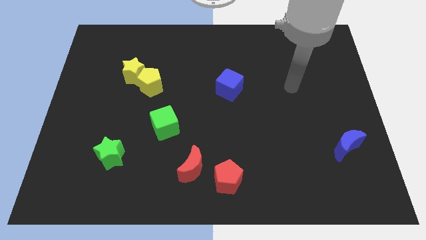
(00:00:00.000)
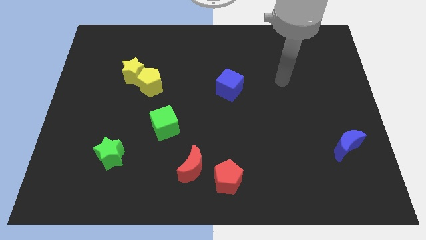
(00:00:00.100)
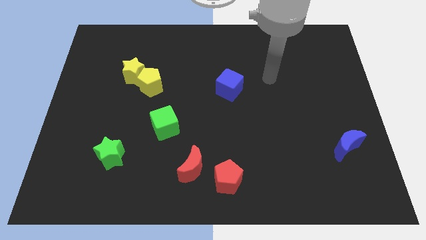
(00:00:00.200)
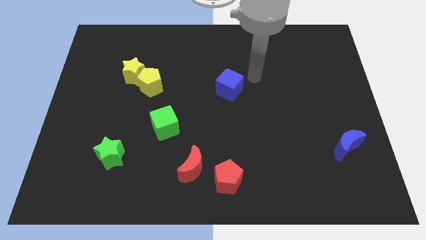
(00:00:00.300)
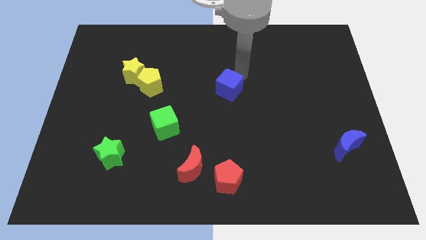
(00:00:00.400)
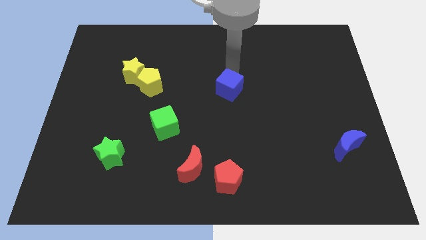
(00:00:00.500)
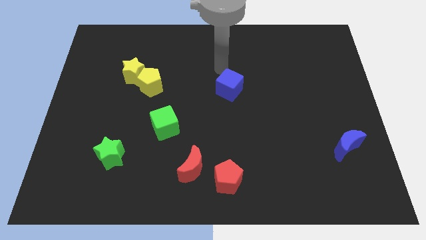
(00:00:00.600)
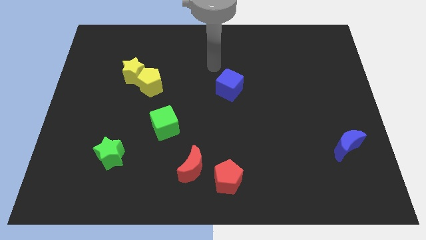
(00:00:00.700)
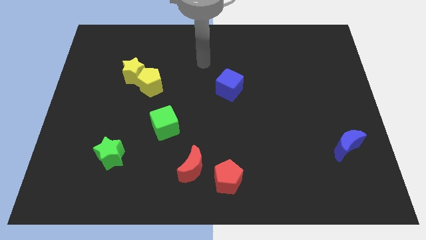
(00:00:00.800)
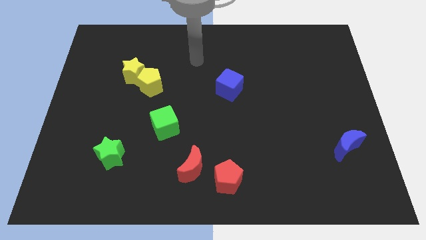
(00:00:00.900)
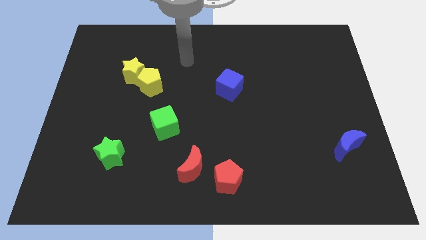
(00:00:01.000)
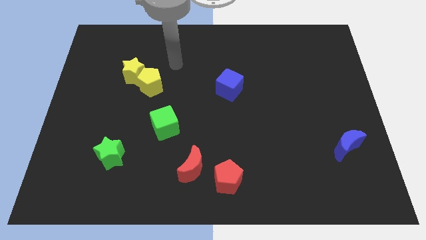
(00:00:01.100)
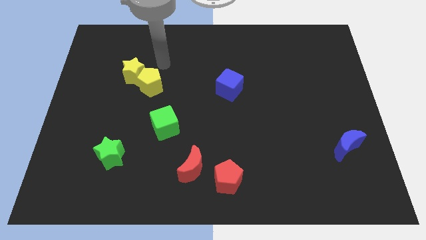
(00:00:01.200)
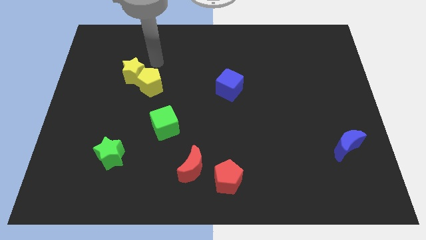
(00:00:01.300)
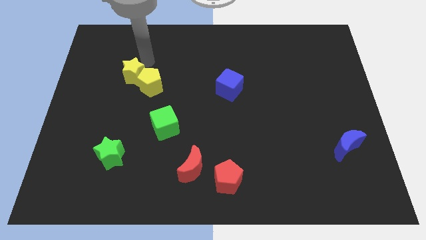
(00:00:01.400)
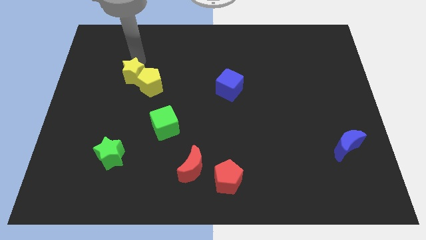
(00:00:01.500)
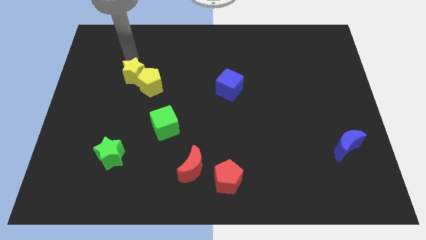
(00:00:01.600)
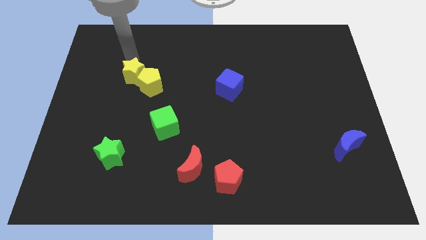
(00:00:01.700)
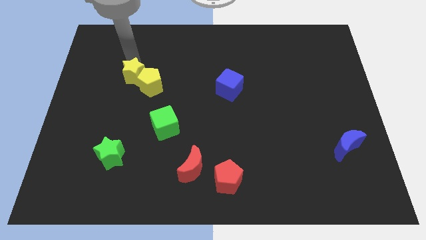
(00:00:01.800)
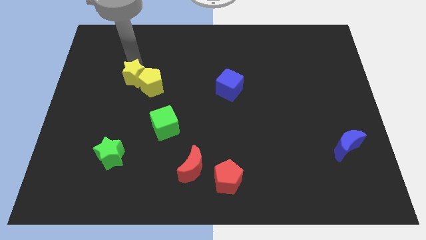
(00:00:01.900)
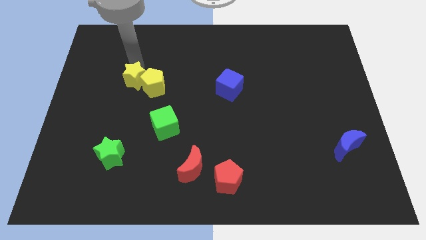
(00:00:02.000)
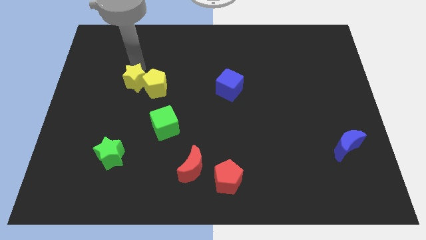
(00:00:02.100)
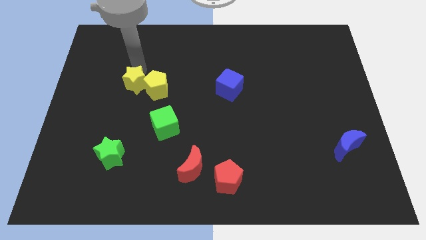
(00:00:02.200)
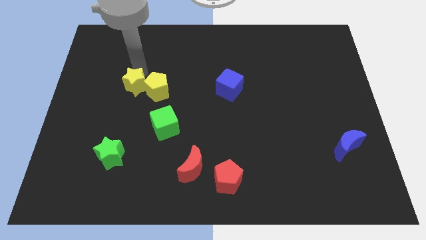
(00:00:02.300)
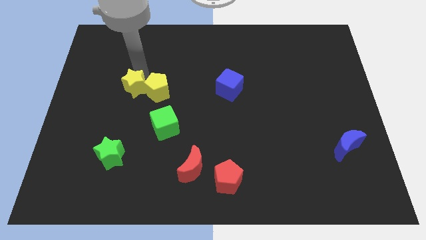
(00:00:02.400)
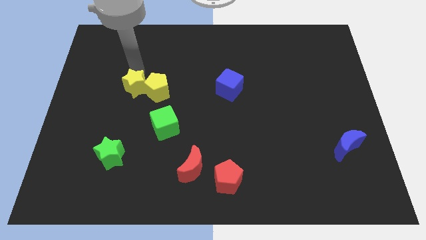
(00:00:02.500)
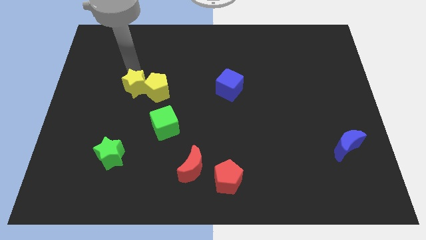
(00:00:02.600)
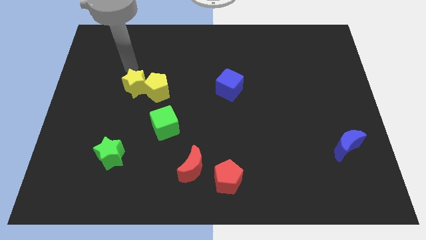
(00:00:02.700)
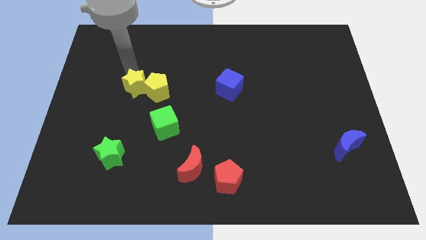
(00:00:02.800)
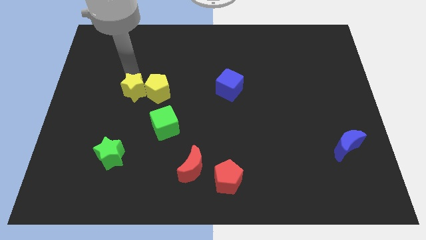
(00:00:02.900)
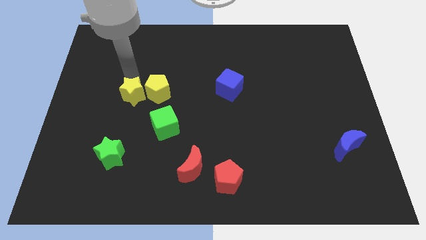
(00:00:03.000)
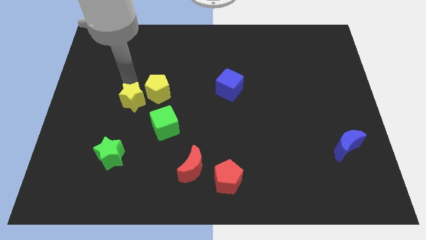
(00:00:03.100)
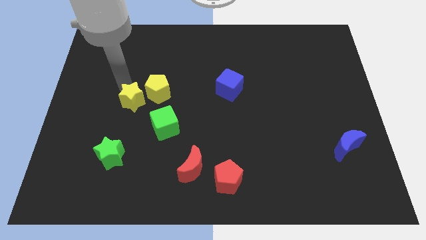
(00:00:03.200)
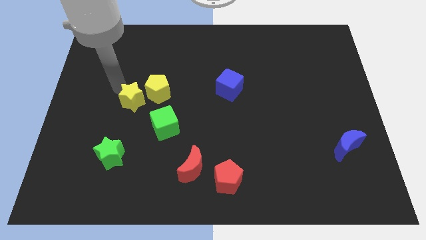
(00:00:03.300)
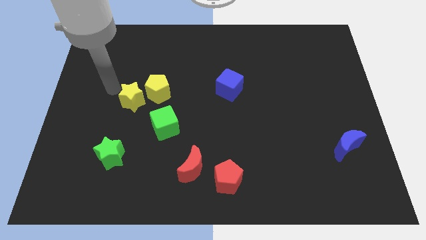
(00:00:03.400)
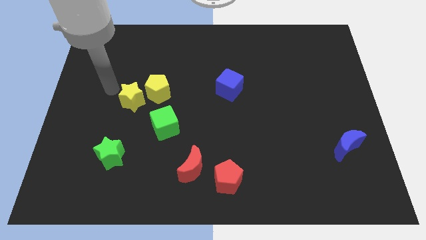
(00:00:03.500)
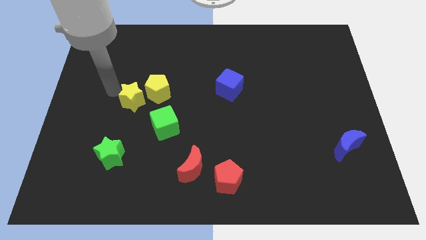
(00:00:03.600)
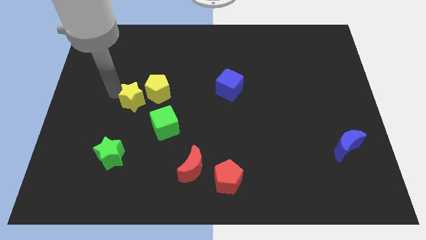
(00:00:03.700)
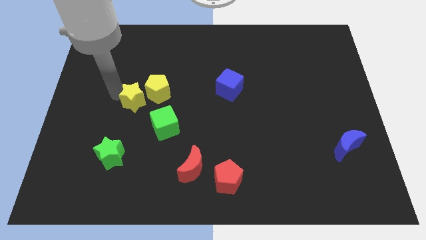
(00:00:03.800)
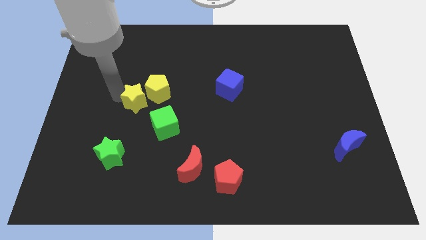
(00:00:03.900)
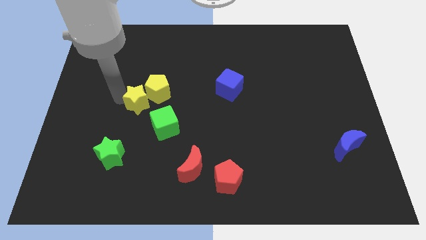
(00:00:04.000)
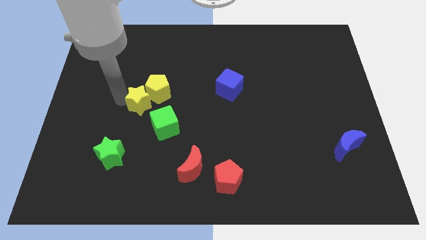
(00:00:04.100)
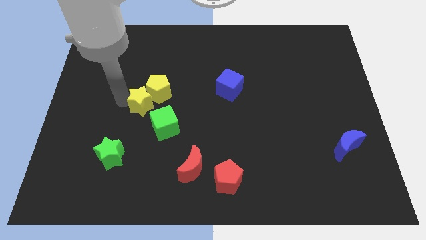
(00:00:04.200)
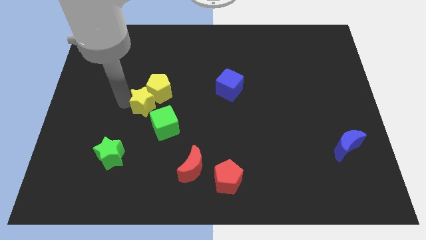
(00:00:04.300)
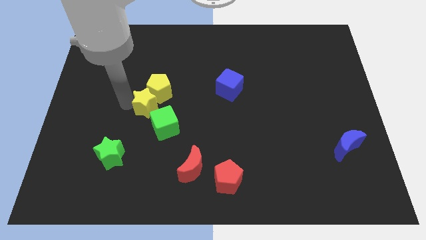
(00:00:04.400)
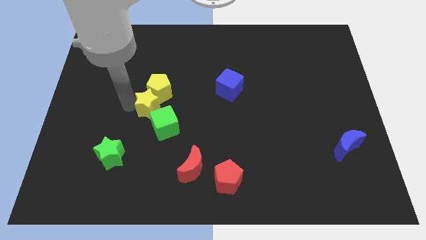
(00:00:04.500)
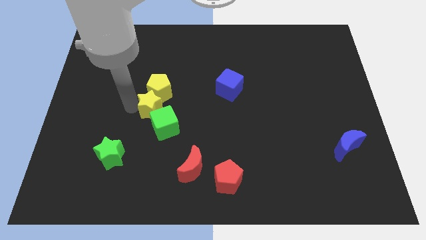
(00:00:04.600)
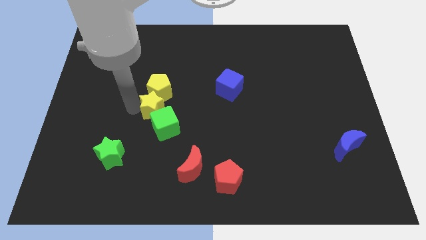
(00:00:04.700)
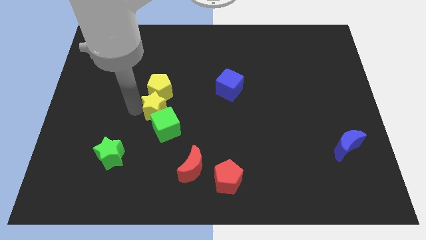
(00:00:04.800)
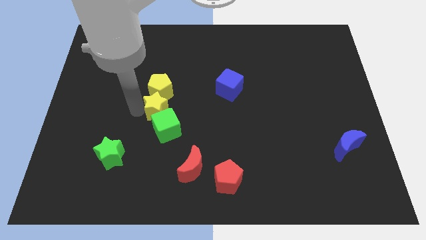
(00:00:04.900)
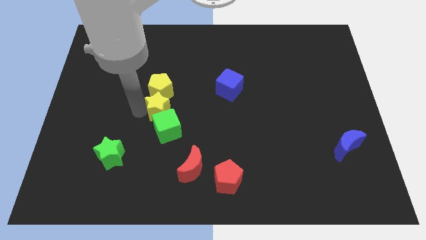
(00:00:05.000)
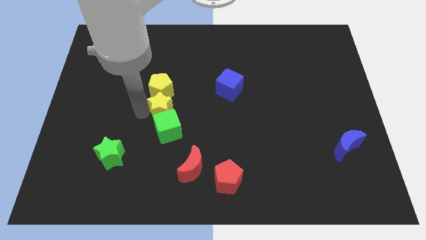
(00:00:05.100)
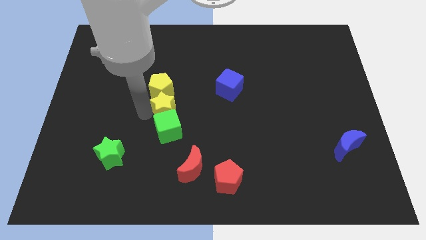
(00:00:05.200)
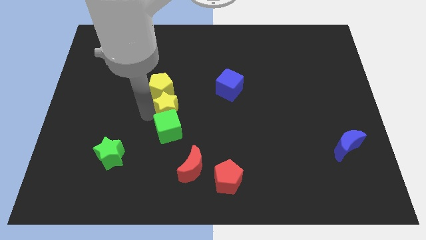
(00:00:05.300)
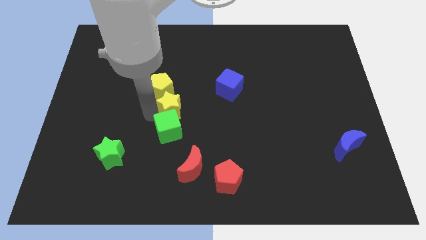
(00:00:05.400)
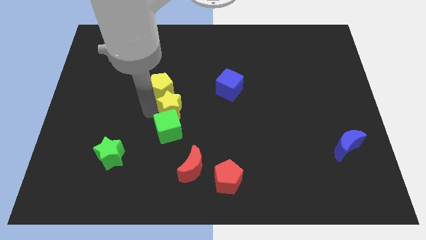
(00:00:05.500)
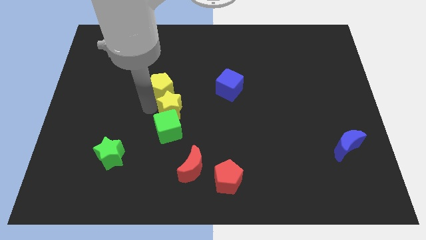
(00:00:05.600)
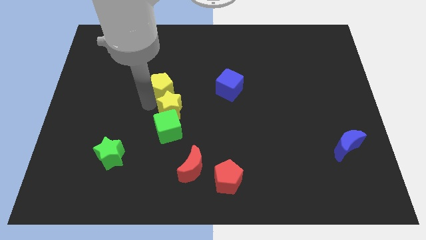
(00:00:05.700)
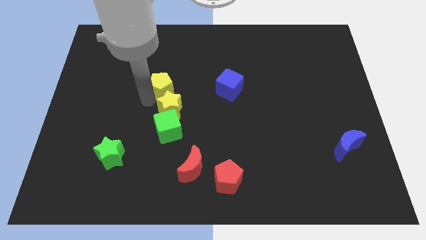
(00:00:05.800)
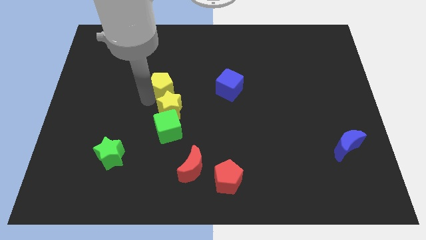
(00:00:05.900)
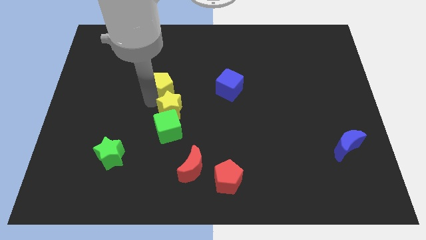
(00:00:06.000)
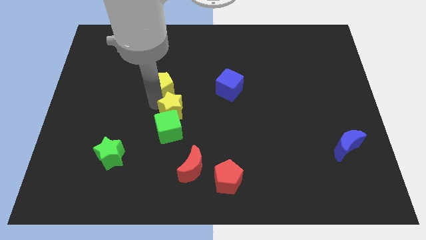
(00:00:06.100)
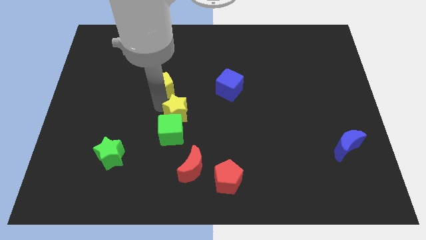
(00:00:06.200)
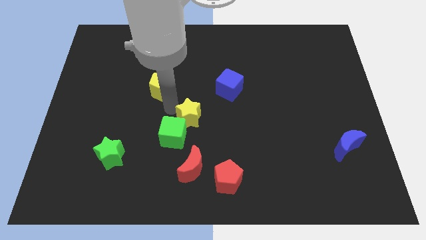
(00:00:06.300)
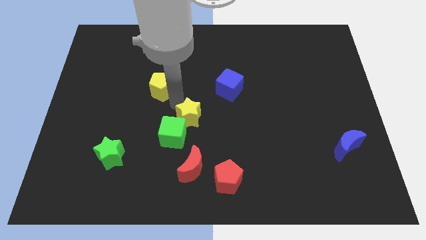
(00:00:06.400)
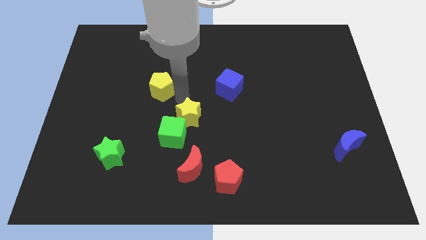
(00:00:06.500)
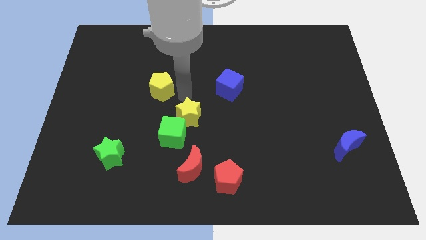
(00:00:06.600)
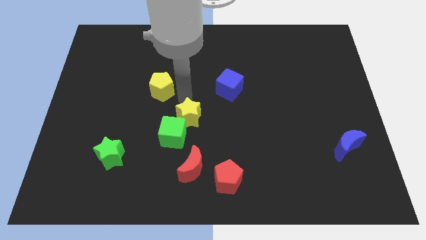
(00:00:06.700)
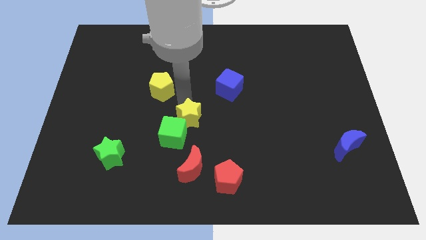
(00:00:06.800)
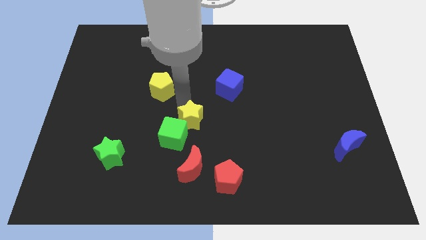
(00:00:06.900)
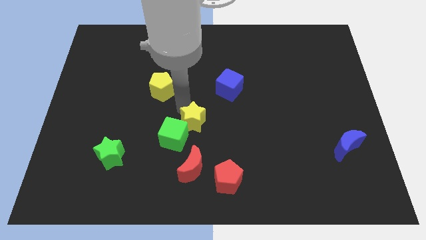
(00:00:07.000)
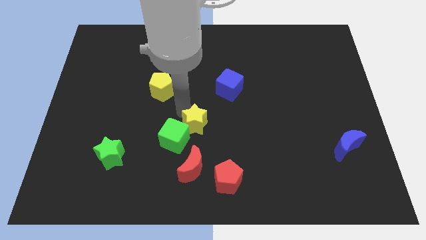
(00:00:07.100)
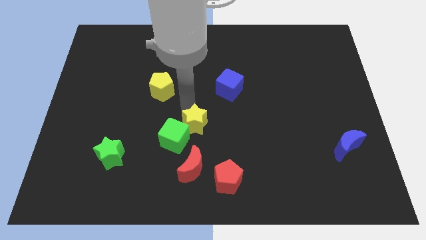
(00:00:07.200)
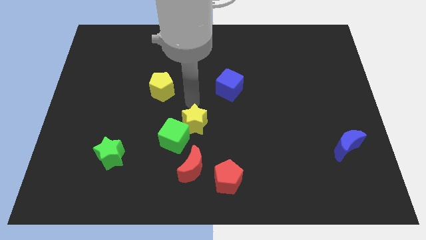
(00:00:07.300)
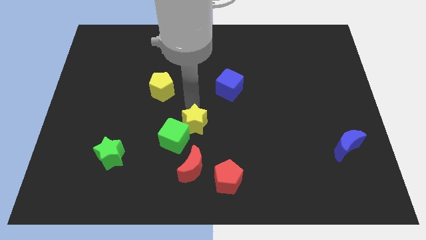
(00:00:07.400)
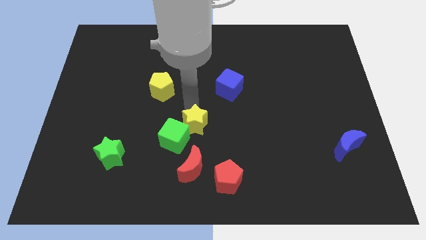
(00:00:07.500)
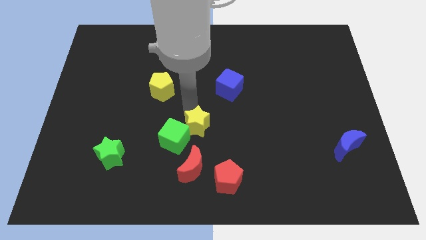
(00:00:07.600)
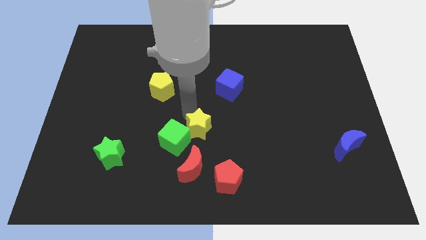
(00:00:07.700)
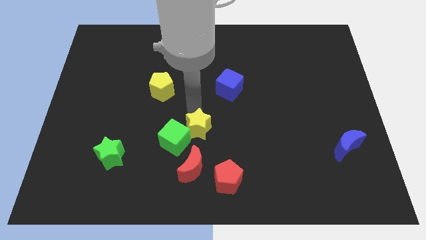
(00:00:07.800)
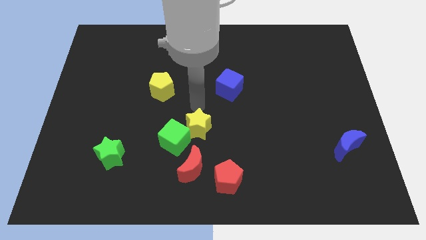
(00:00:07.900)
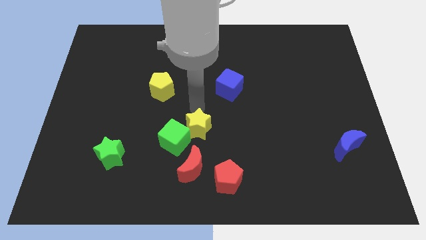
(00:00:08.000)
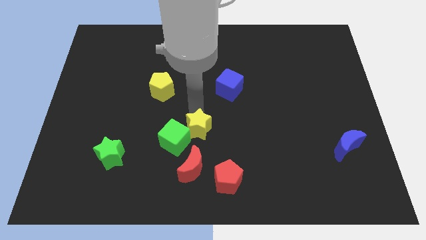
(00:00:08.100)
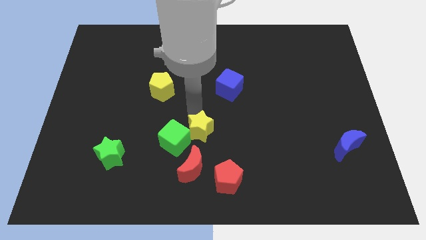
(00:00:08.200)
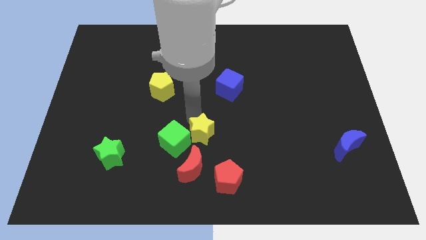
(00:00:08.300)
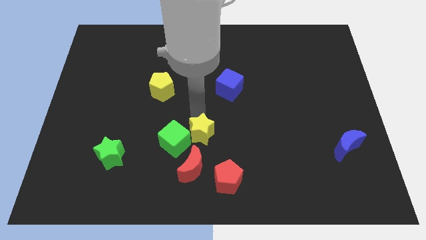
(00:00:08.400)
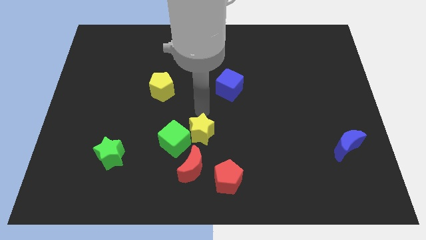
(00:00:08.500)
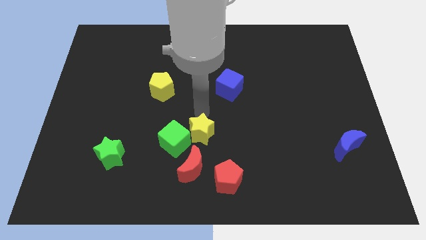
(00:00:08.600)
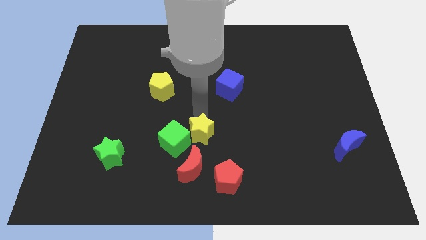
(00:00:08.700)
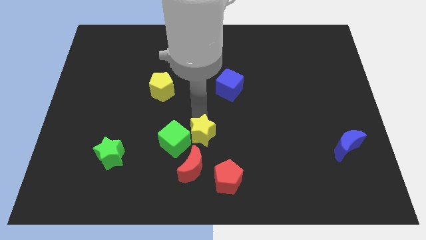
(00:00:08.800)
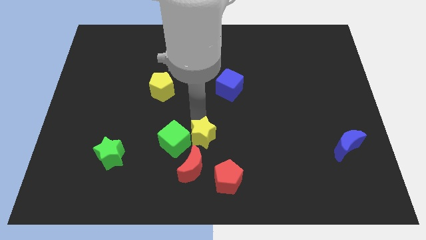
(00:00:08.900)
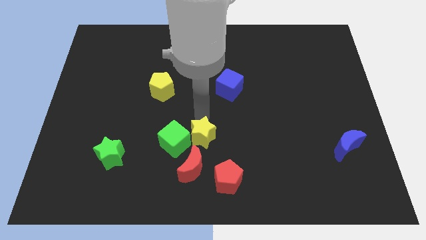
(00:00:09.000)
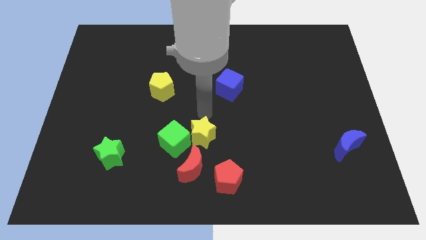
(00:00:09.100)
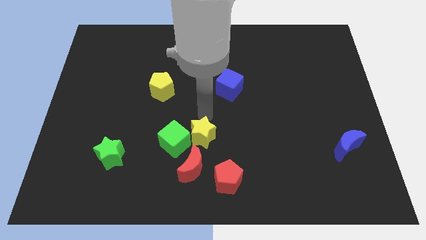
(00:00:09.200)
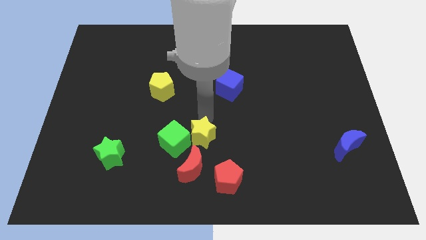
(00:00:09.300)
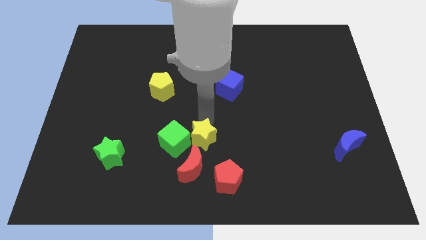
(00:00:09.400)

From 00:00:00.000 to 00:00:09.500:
push the yellow star diagonally down and to the right of the green cube
